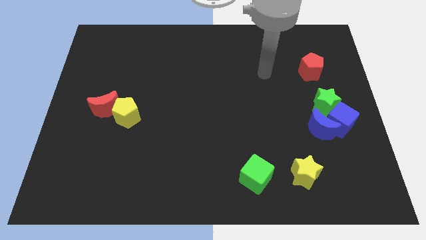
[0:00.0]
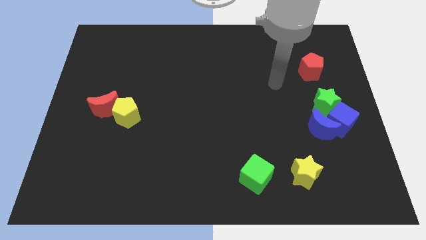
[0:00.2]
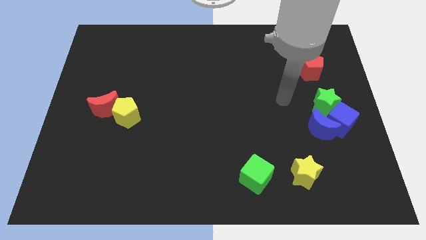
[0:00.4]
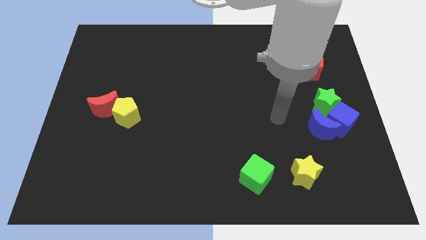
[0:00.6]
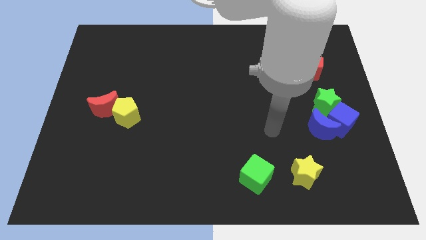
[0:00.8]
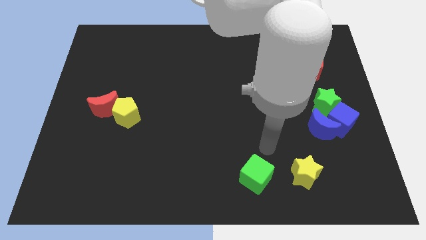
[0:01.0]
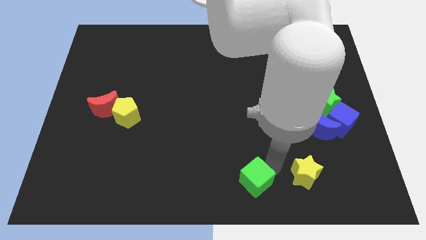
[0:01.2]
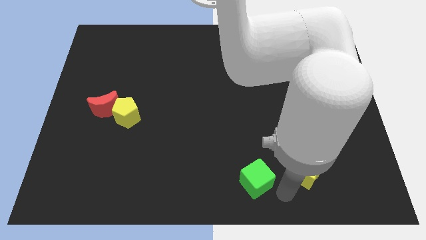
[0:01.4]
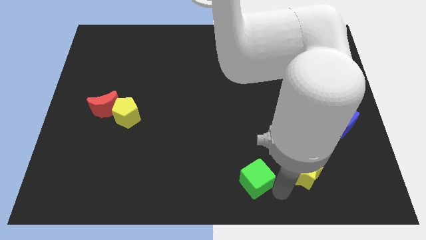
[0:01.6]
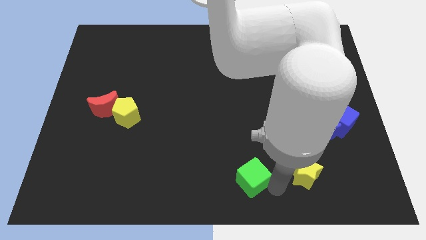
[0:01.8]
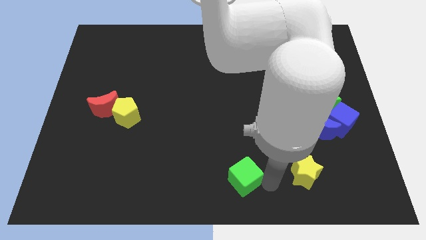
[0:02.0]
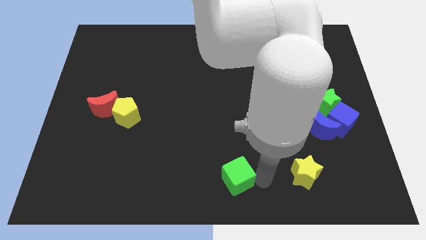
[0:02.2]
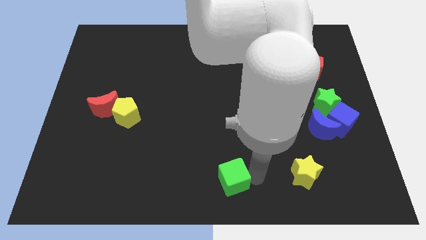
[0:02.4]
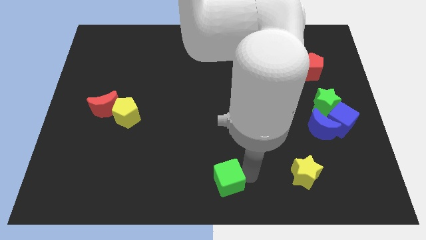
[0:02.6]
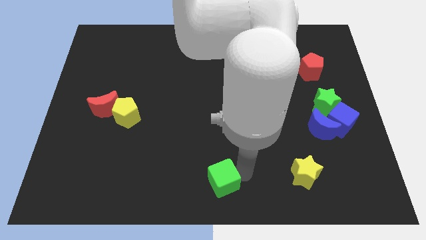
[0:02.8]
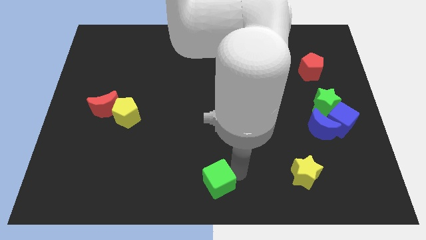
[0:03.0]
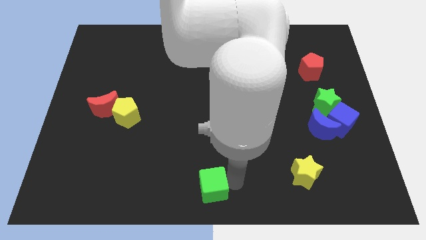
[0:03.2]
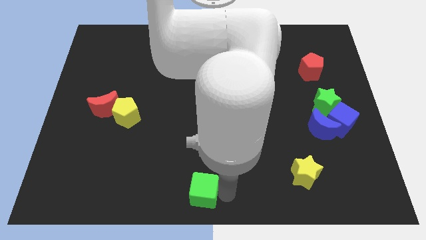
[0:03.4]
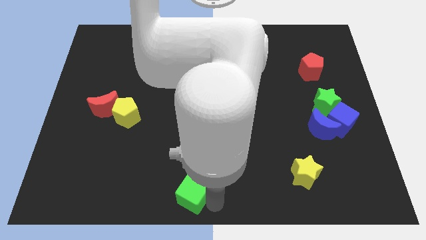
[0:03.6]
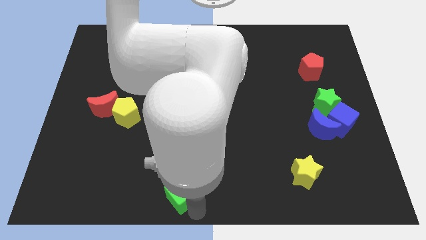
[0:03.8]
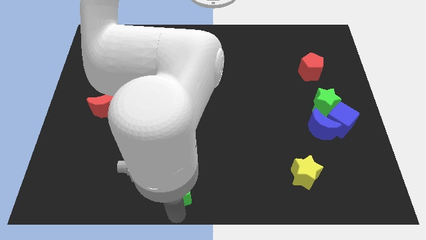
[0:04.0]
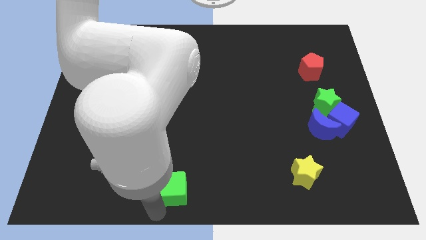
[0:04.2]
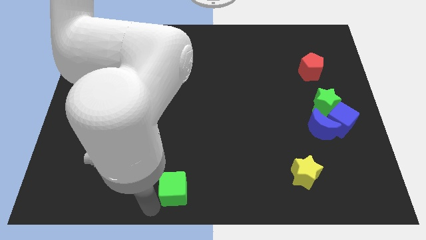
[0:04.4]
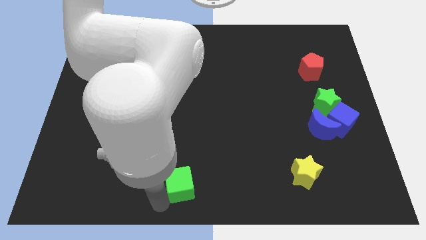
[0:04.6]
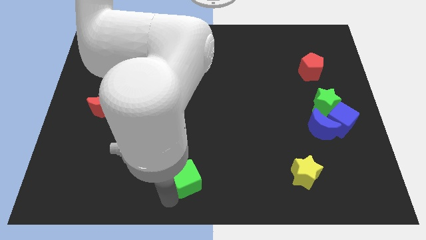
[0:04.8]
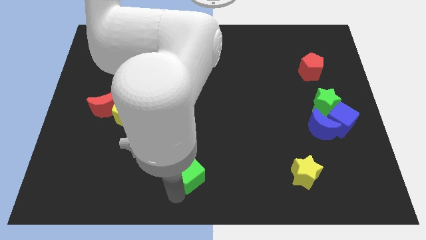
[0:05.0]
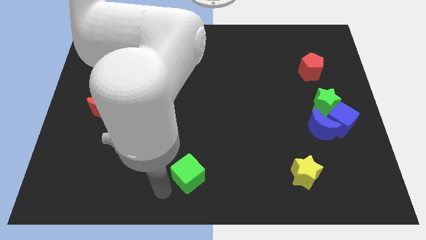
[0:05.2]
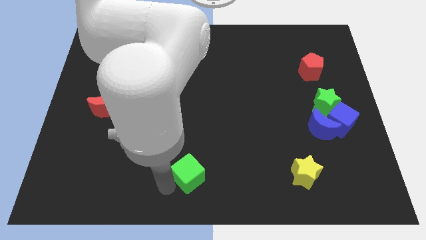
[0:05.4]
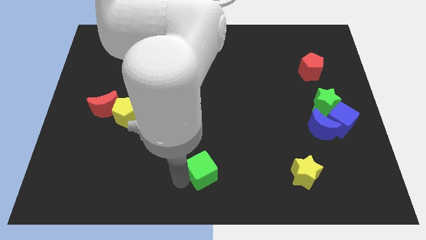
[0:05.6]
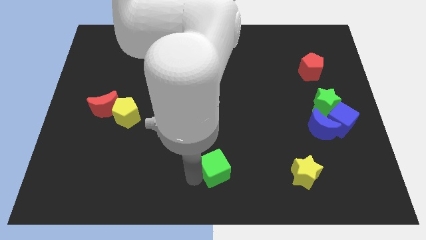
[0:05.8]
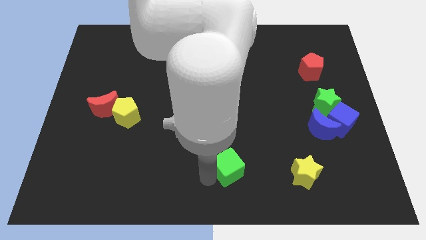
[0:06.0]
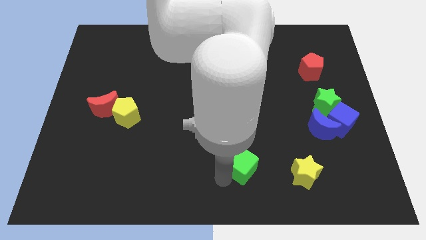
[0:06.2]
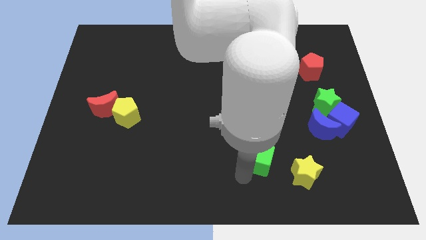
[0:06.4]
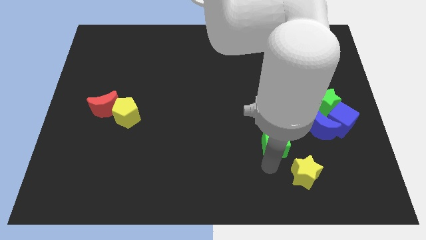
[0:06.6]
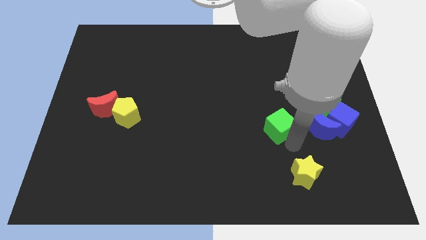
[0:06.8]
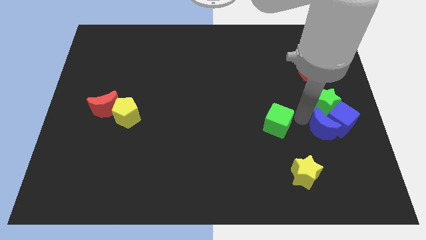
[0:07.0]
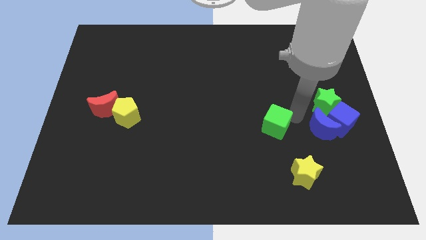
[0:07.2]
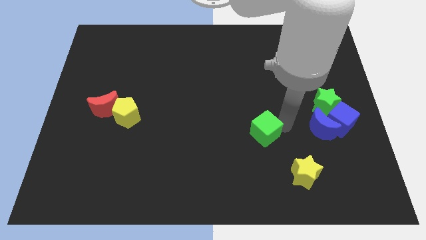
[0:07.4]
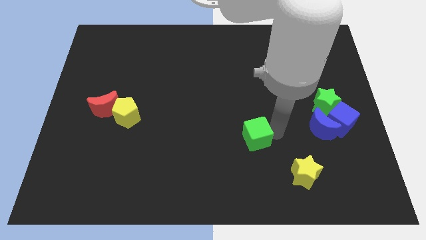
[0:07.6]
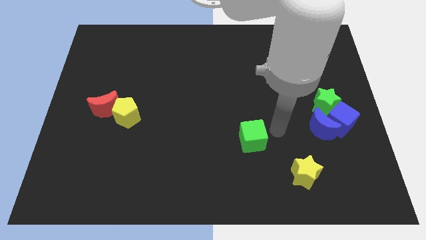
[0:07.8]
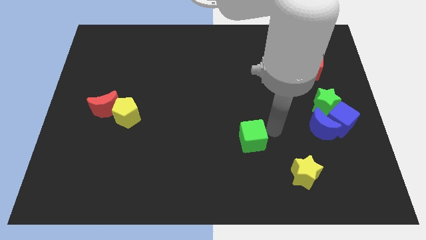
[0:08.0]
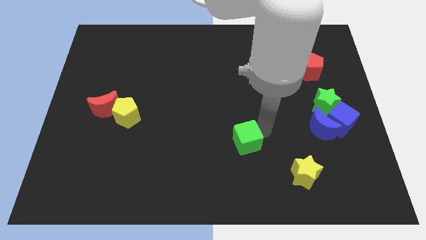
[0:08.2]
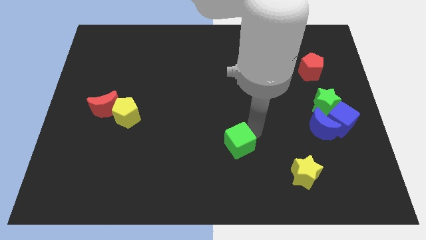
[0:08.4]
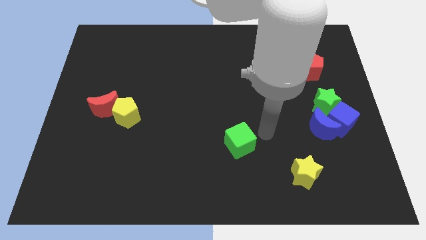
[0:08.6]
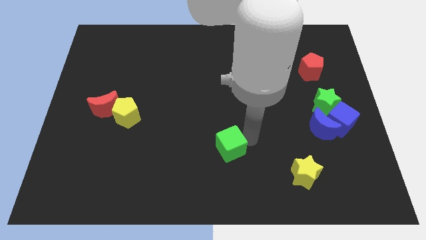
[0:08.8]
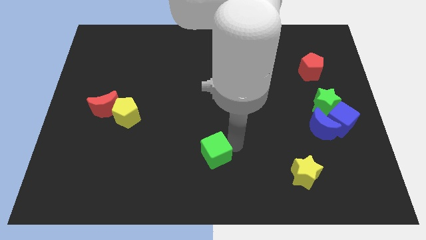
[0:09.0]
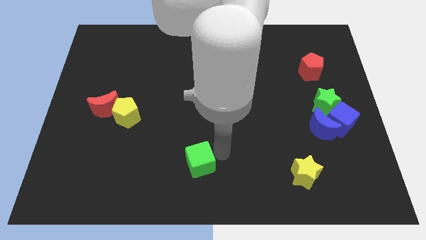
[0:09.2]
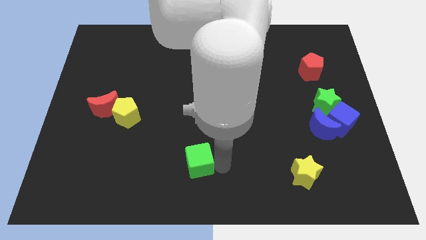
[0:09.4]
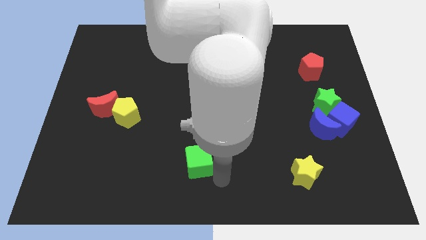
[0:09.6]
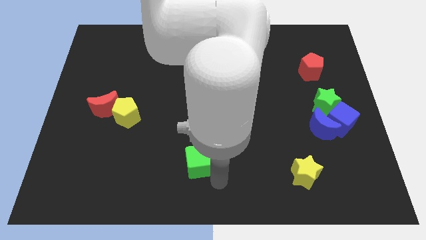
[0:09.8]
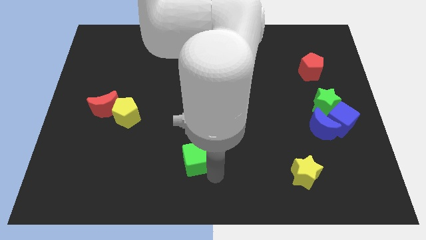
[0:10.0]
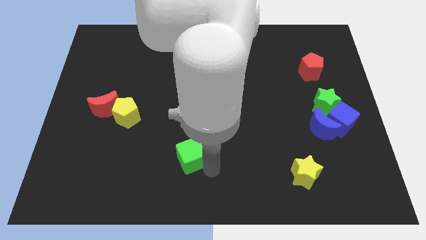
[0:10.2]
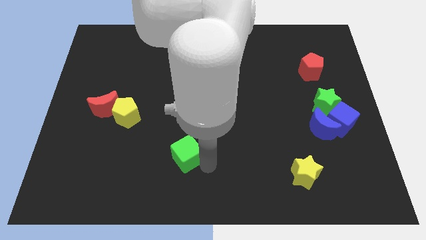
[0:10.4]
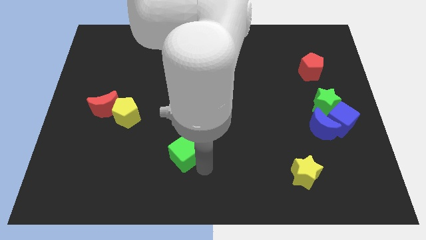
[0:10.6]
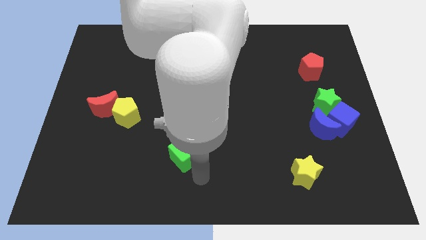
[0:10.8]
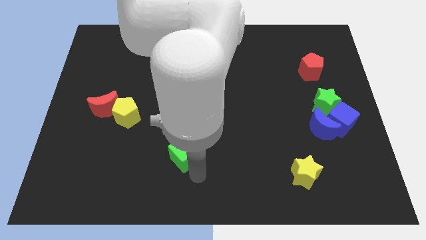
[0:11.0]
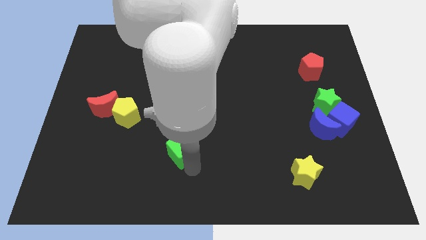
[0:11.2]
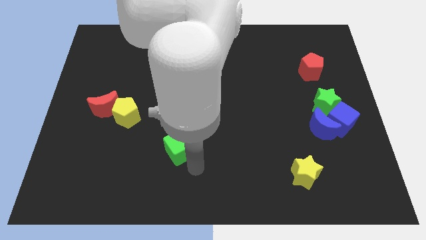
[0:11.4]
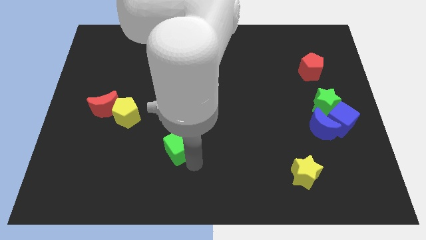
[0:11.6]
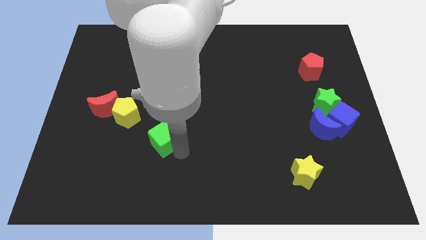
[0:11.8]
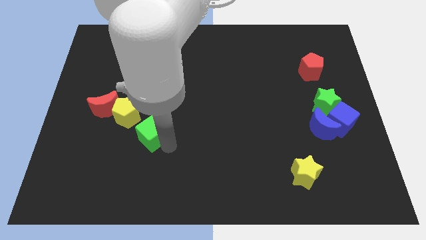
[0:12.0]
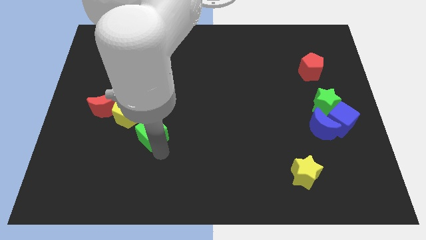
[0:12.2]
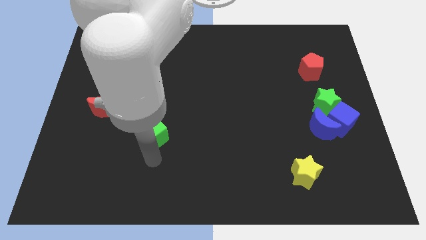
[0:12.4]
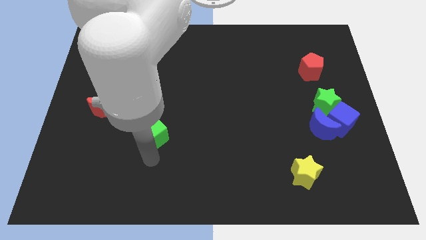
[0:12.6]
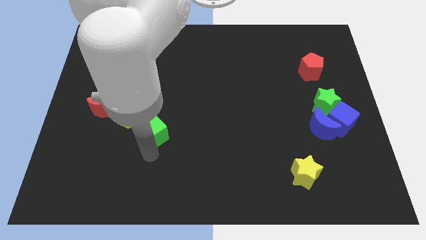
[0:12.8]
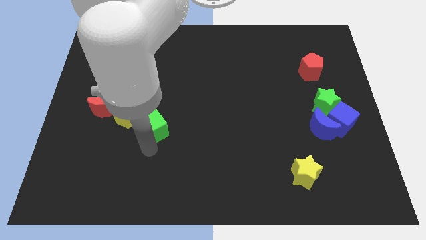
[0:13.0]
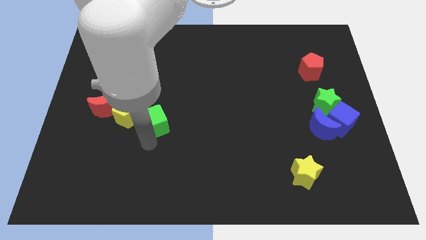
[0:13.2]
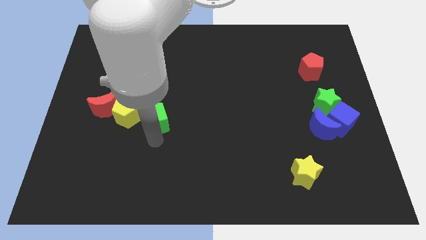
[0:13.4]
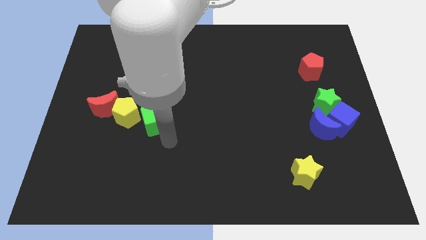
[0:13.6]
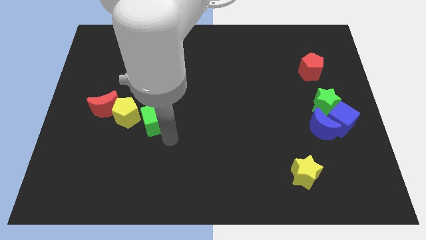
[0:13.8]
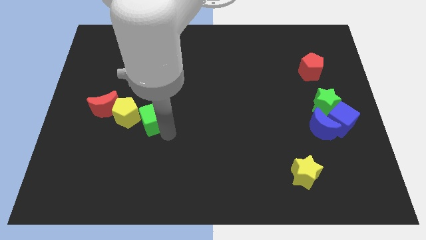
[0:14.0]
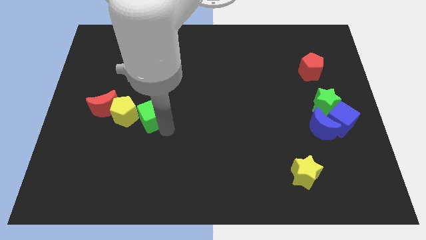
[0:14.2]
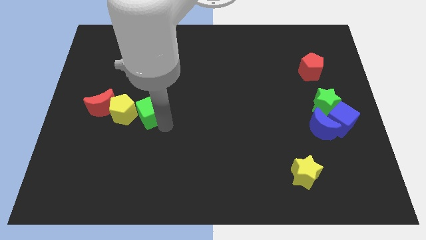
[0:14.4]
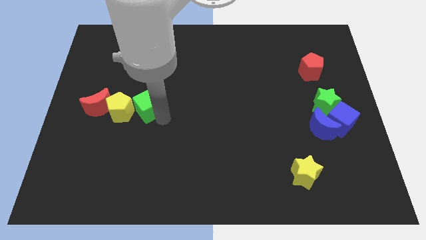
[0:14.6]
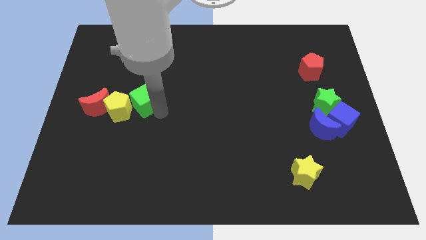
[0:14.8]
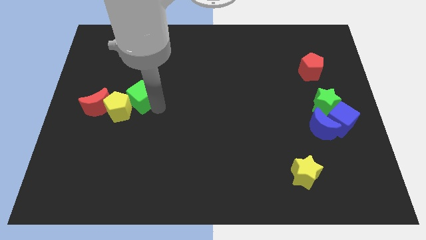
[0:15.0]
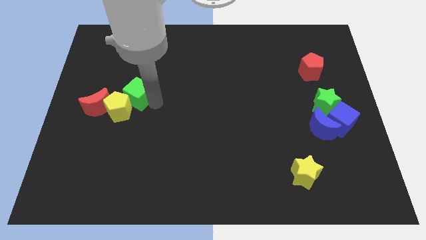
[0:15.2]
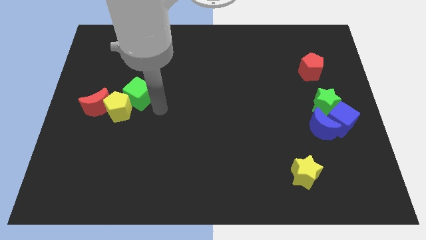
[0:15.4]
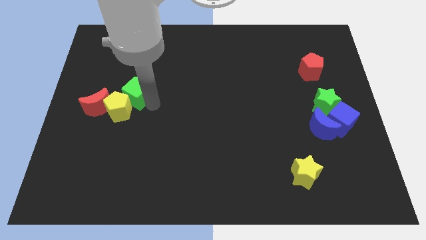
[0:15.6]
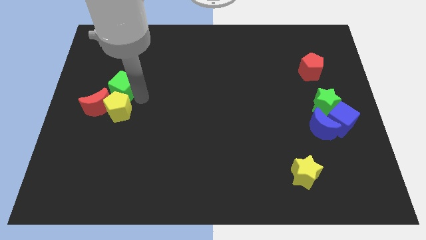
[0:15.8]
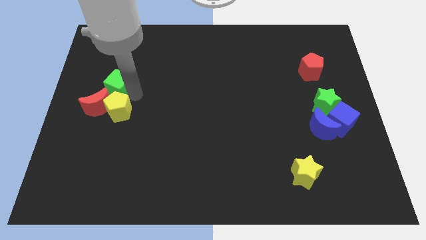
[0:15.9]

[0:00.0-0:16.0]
put the green cube above the red moon
